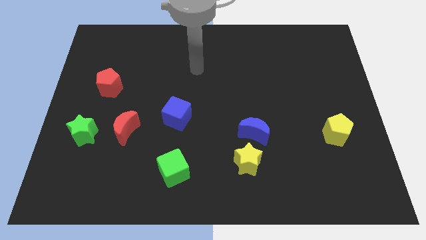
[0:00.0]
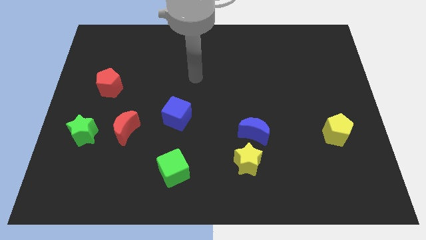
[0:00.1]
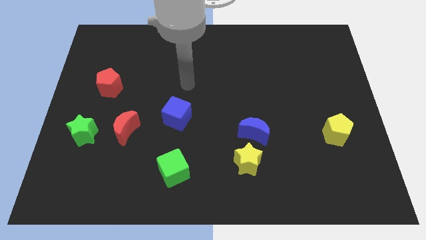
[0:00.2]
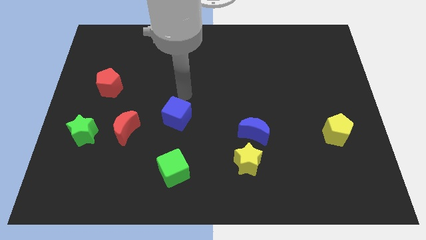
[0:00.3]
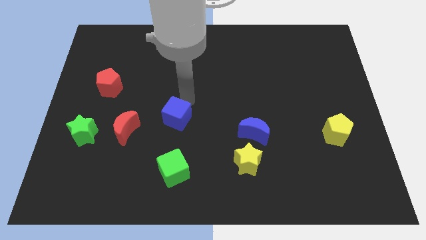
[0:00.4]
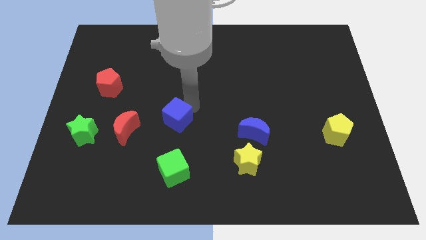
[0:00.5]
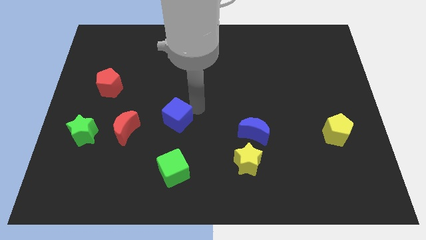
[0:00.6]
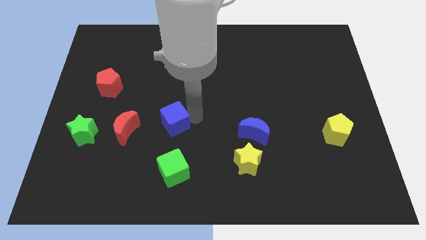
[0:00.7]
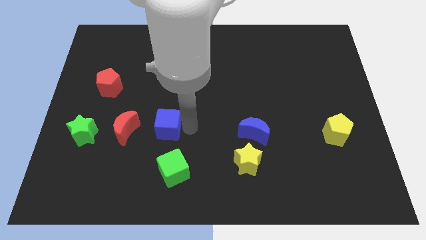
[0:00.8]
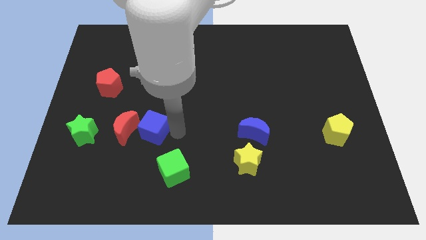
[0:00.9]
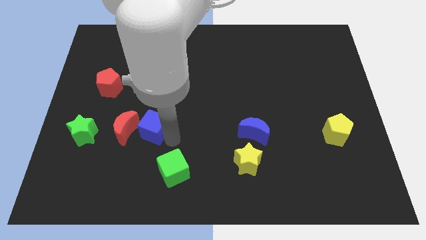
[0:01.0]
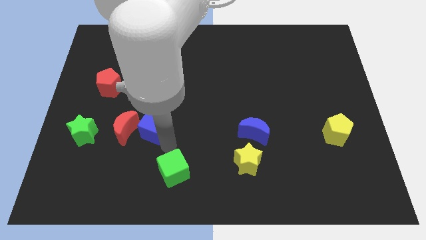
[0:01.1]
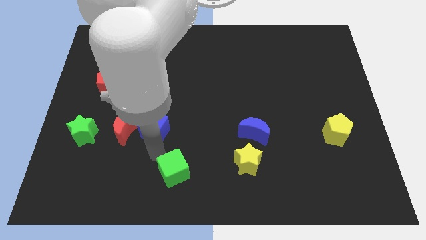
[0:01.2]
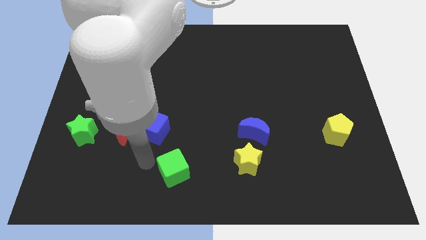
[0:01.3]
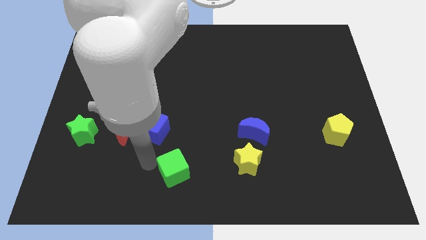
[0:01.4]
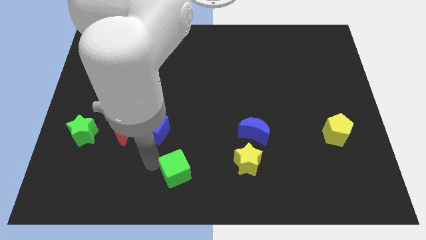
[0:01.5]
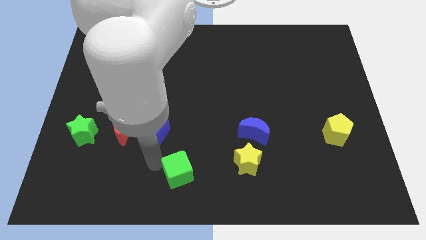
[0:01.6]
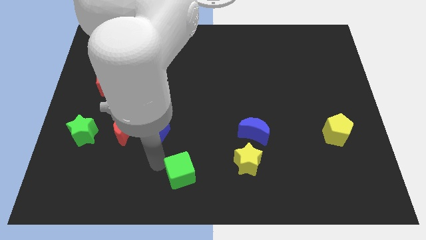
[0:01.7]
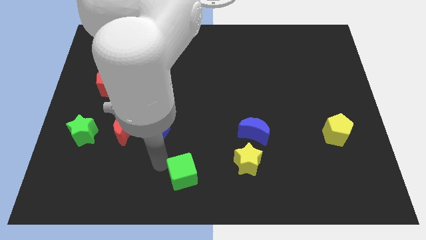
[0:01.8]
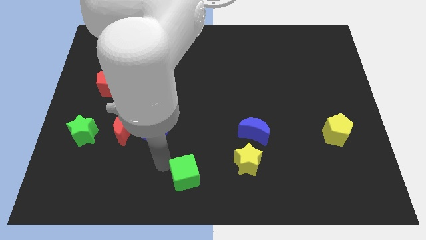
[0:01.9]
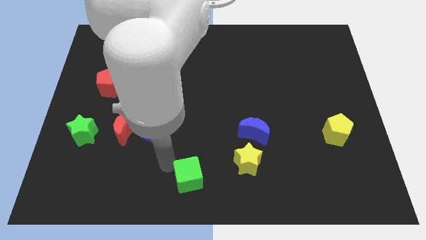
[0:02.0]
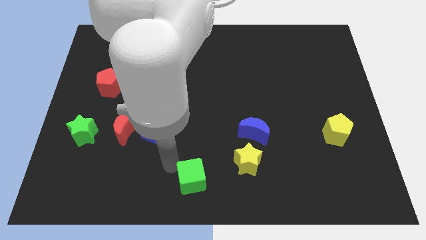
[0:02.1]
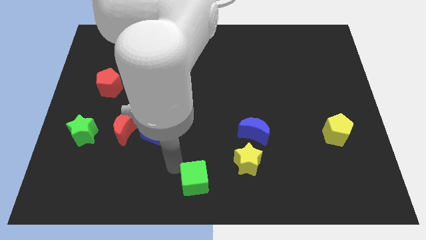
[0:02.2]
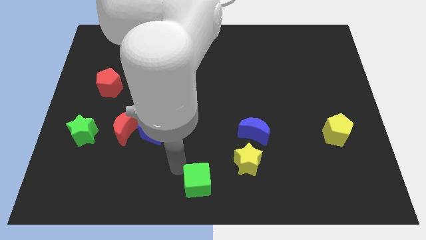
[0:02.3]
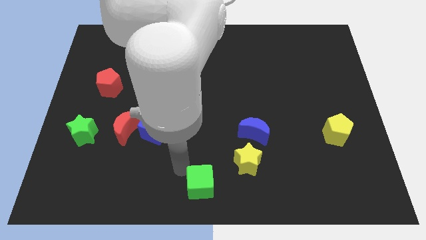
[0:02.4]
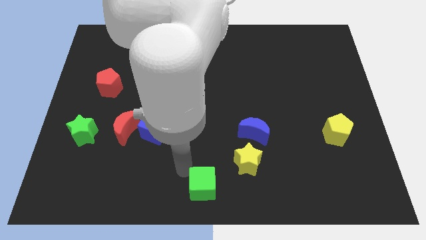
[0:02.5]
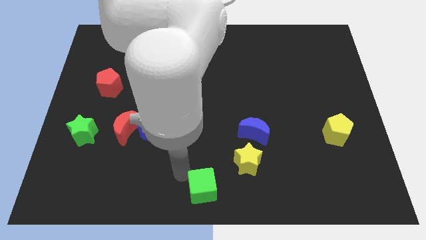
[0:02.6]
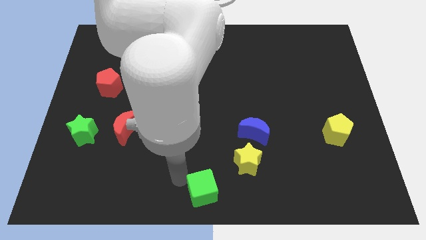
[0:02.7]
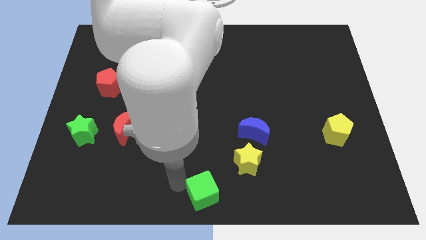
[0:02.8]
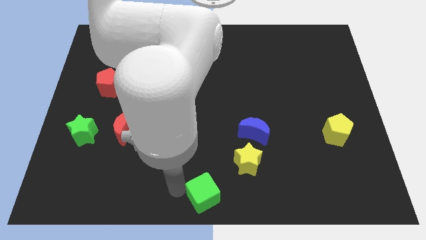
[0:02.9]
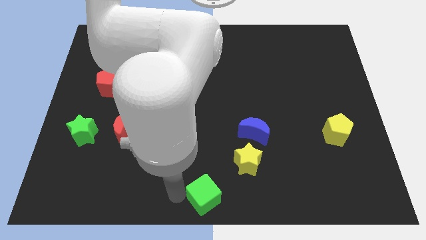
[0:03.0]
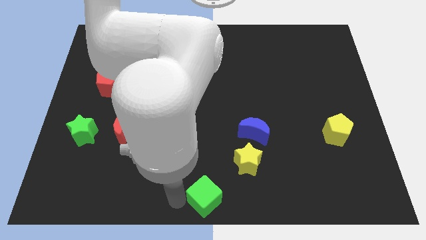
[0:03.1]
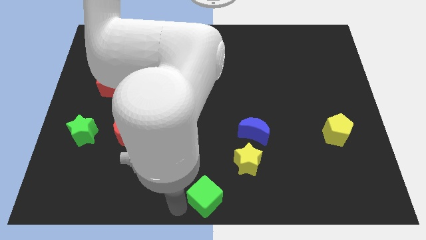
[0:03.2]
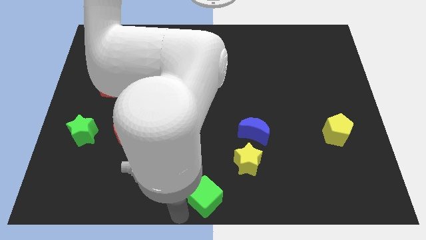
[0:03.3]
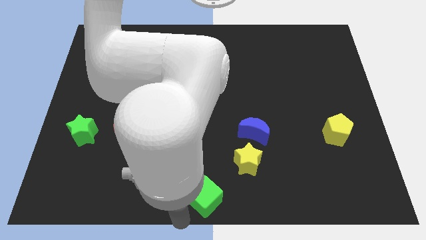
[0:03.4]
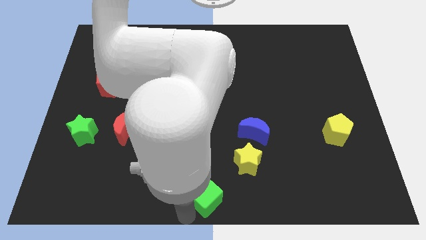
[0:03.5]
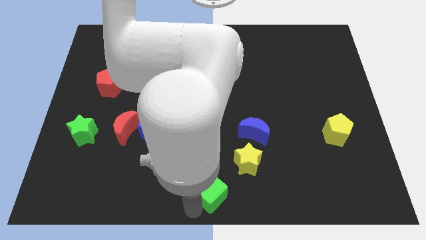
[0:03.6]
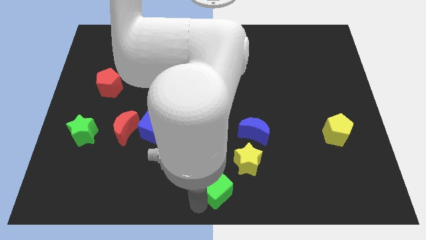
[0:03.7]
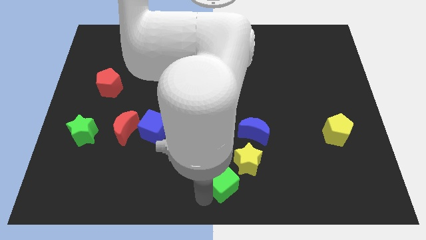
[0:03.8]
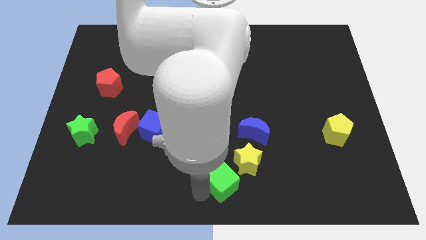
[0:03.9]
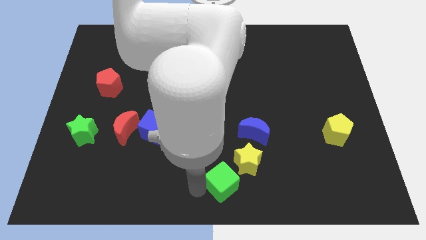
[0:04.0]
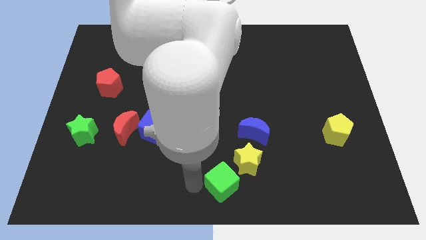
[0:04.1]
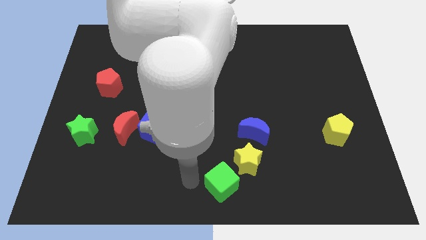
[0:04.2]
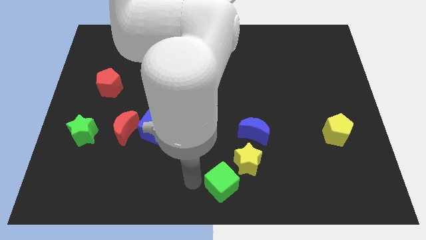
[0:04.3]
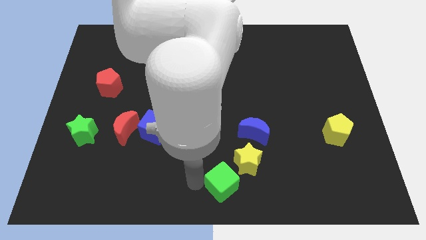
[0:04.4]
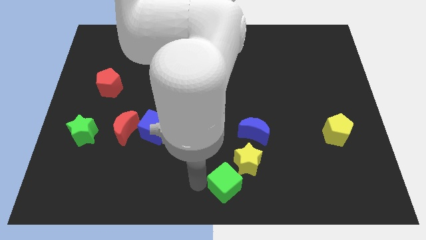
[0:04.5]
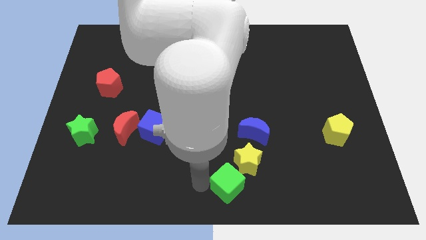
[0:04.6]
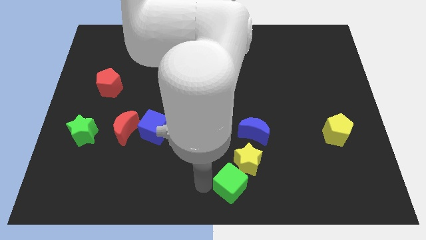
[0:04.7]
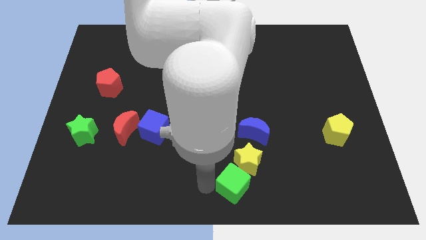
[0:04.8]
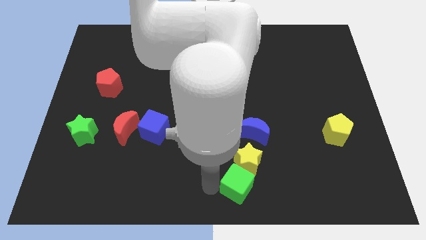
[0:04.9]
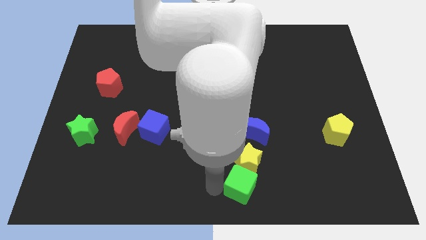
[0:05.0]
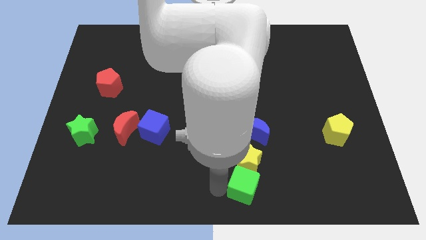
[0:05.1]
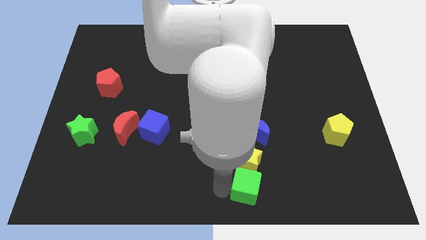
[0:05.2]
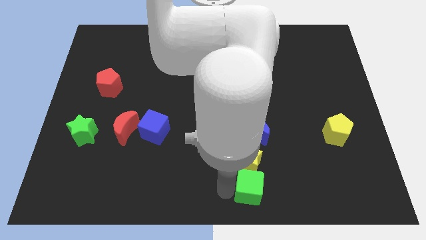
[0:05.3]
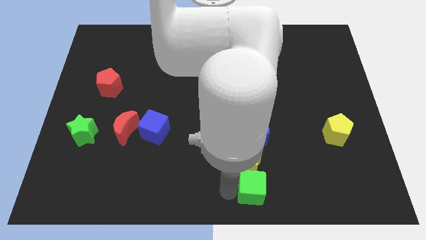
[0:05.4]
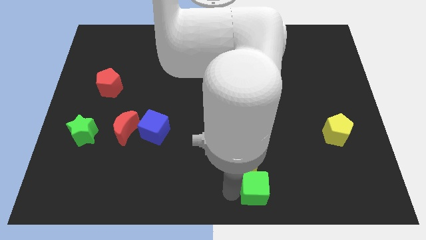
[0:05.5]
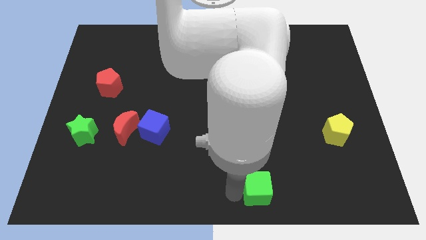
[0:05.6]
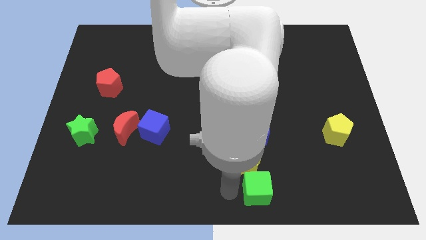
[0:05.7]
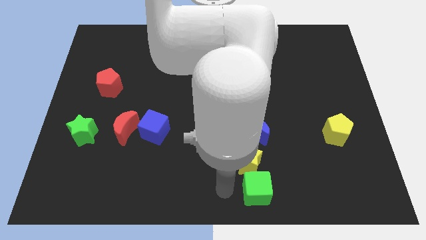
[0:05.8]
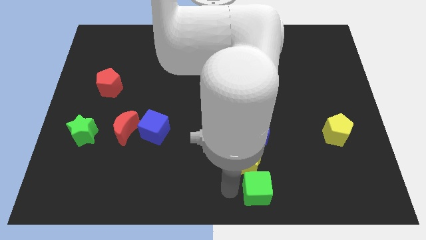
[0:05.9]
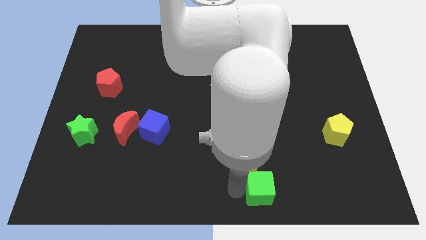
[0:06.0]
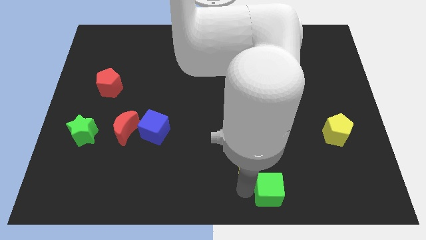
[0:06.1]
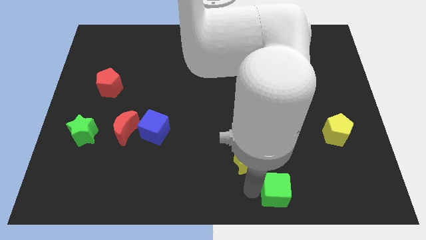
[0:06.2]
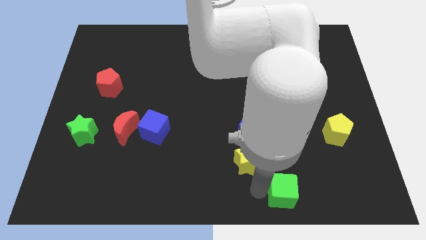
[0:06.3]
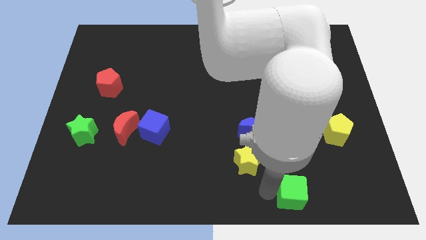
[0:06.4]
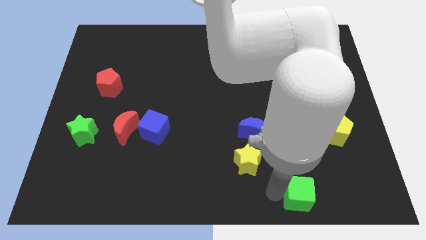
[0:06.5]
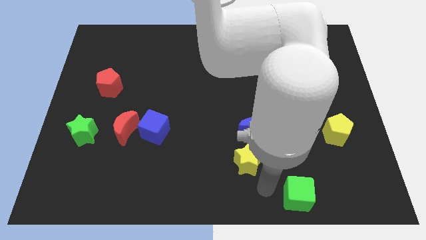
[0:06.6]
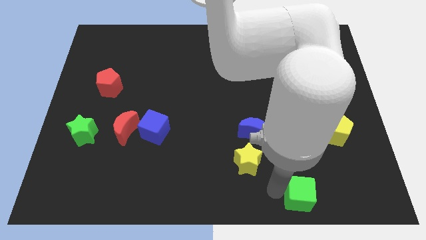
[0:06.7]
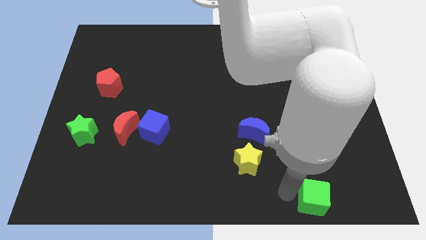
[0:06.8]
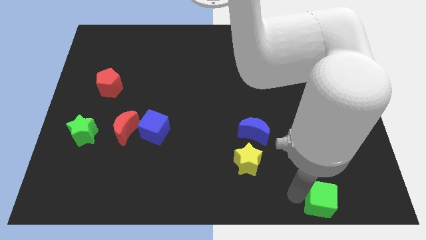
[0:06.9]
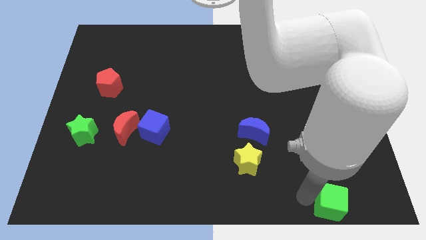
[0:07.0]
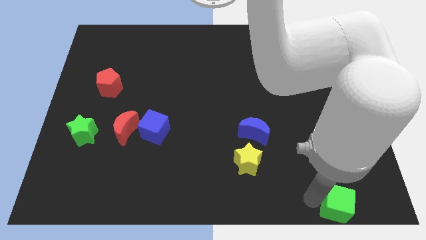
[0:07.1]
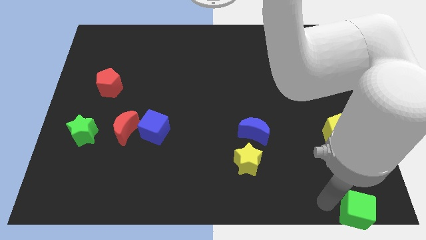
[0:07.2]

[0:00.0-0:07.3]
put the green cube to the bottom right of the board
